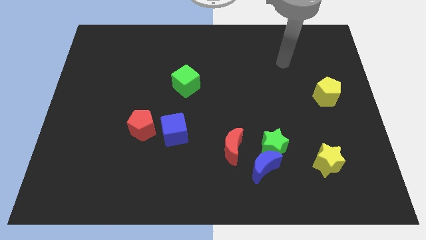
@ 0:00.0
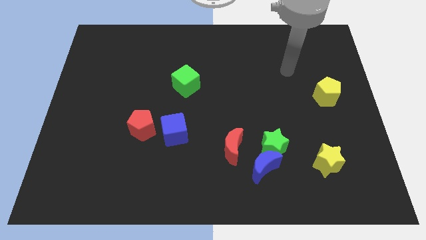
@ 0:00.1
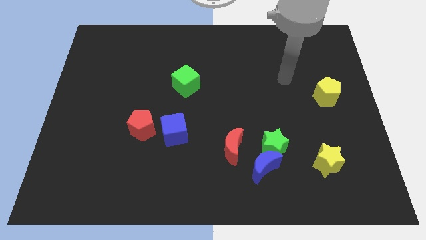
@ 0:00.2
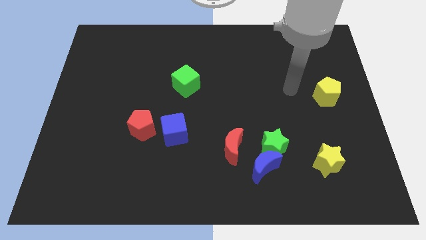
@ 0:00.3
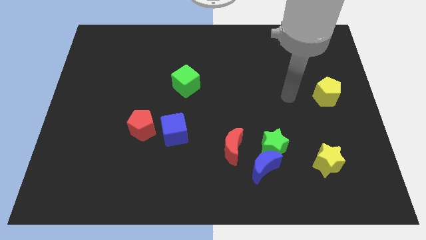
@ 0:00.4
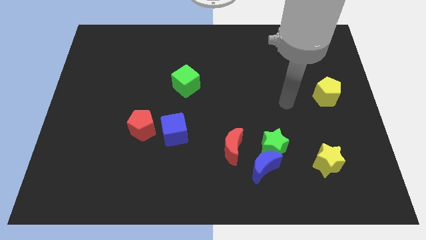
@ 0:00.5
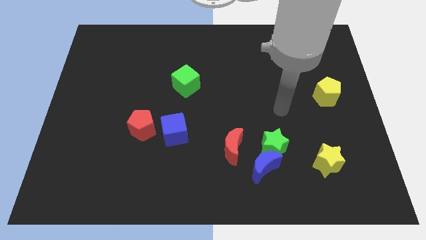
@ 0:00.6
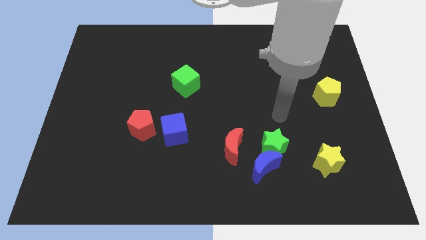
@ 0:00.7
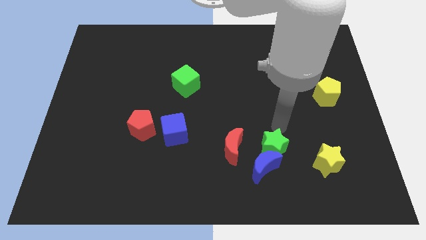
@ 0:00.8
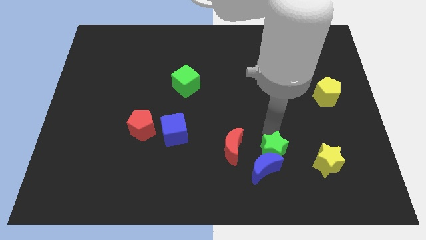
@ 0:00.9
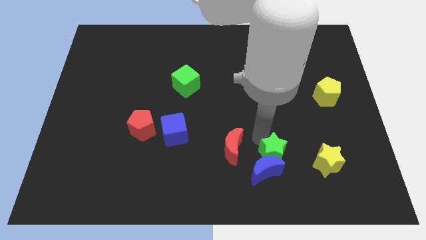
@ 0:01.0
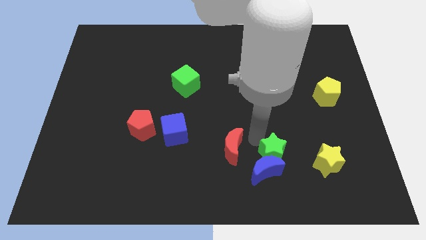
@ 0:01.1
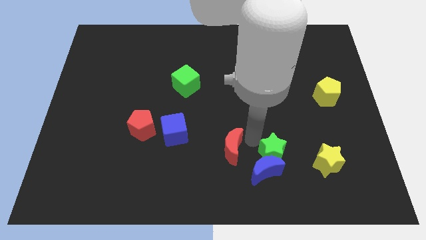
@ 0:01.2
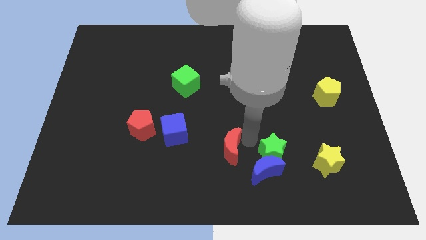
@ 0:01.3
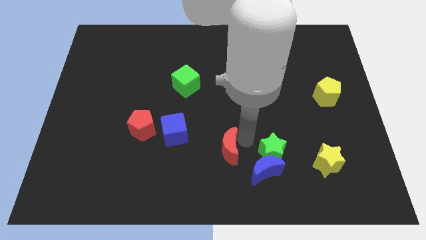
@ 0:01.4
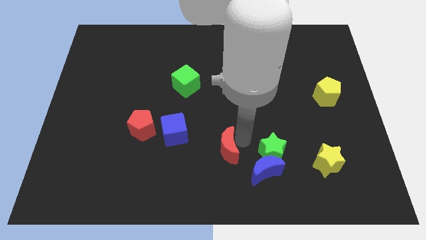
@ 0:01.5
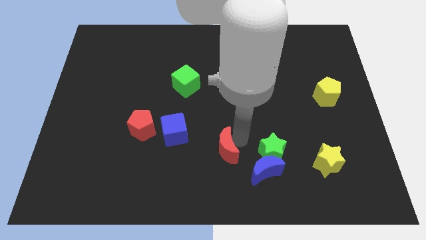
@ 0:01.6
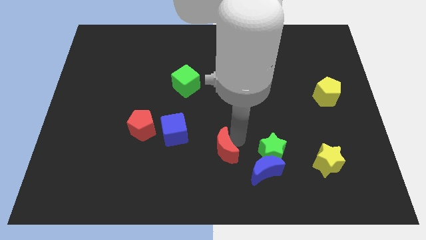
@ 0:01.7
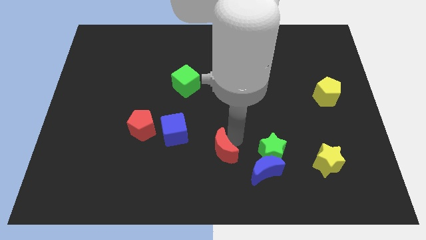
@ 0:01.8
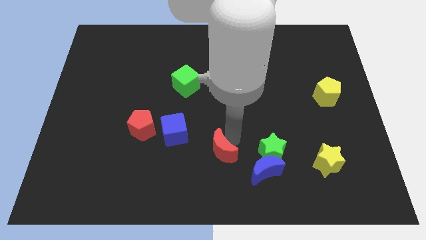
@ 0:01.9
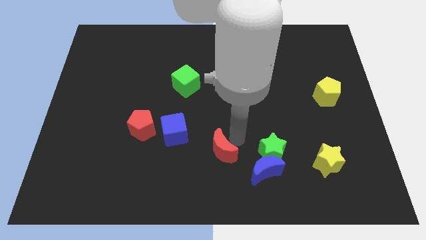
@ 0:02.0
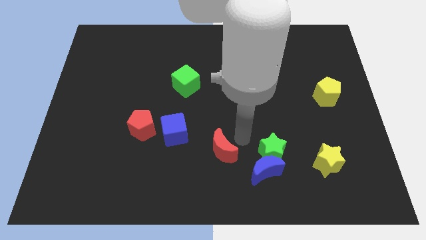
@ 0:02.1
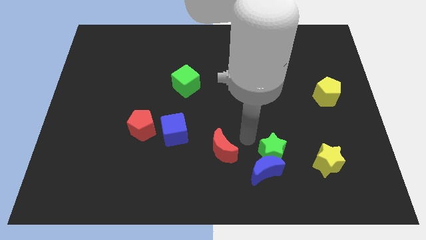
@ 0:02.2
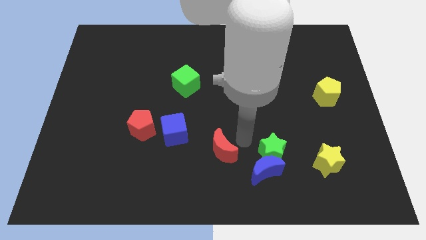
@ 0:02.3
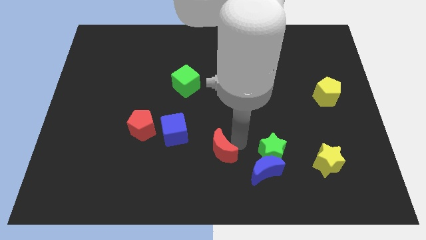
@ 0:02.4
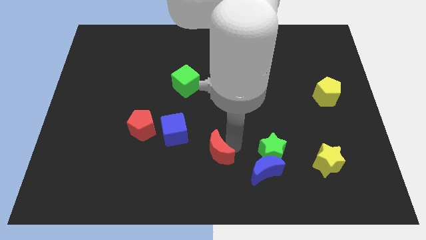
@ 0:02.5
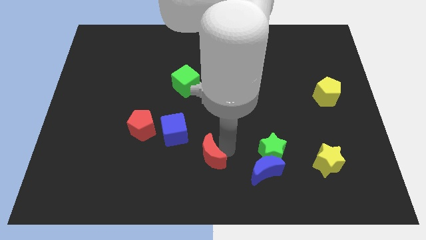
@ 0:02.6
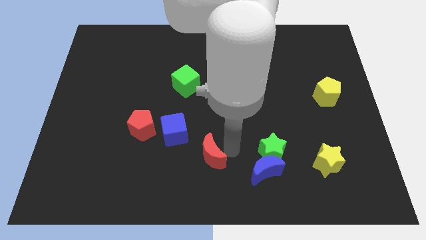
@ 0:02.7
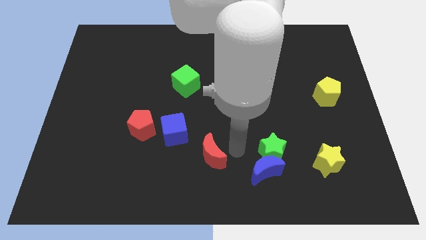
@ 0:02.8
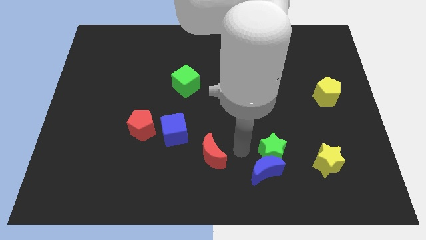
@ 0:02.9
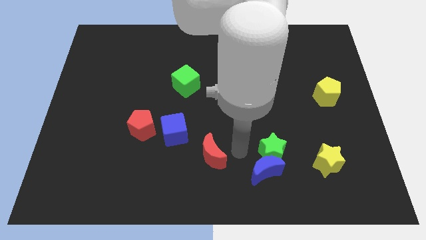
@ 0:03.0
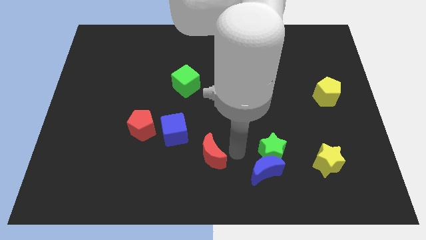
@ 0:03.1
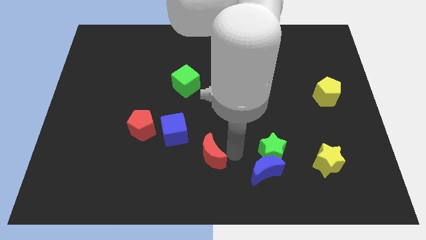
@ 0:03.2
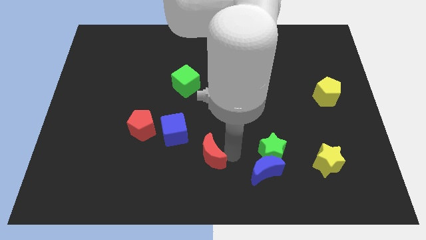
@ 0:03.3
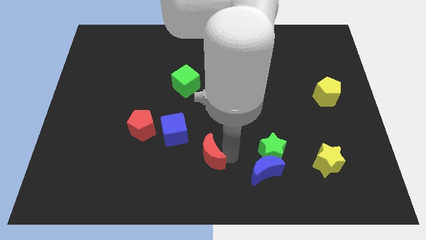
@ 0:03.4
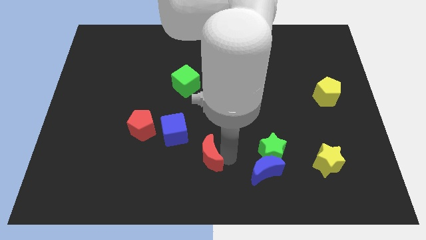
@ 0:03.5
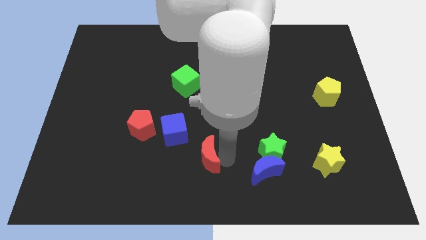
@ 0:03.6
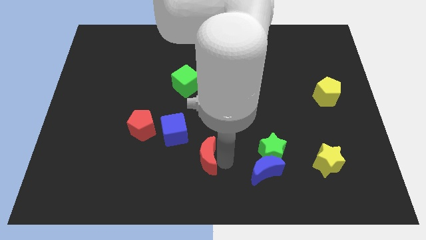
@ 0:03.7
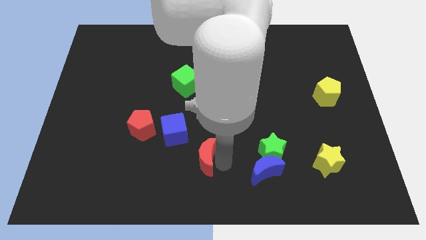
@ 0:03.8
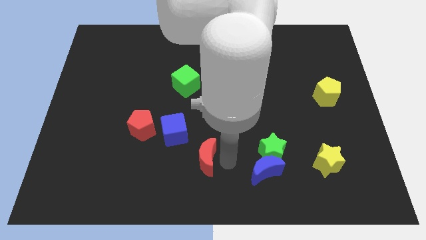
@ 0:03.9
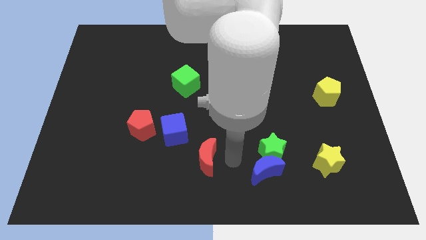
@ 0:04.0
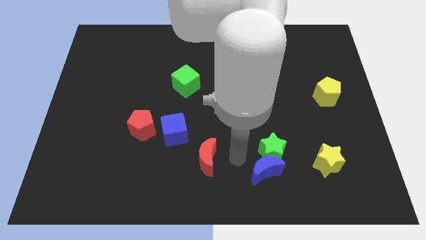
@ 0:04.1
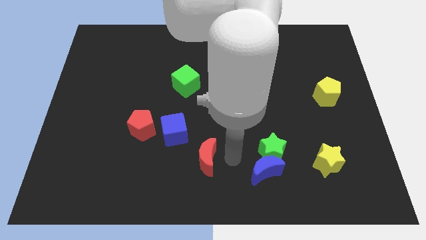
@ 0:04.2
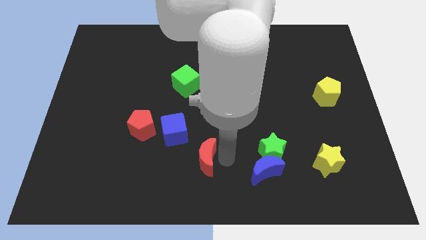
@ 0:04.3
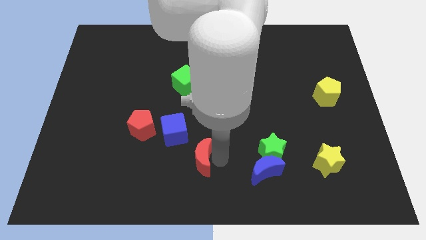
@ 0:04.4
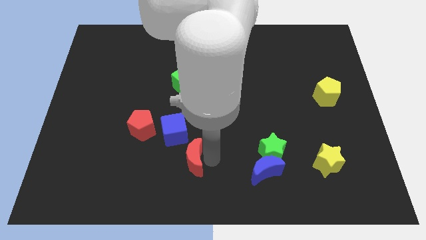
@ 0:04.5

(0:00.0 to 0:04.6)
push the red moon to the left a little

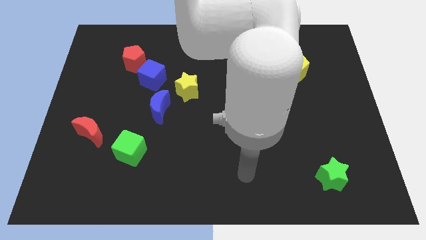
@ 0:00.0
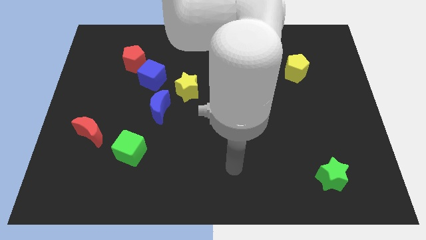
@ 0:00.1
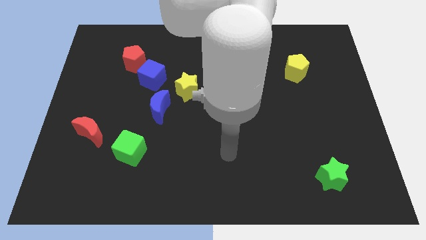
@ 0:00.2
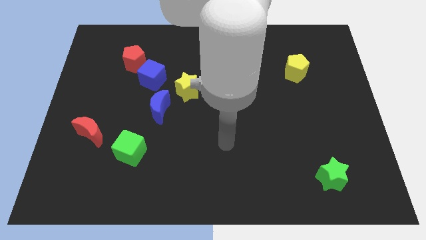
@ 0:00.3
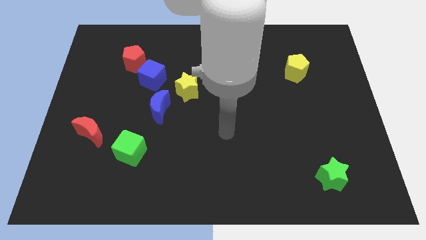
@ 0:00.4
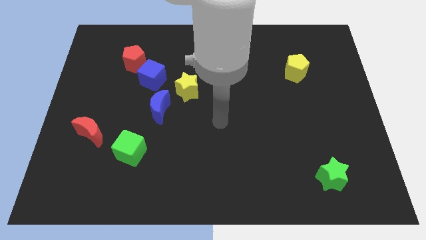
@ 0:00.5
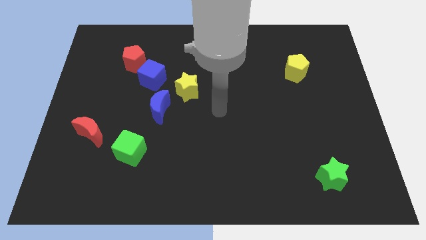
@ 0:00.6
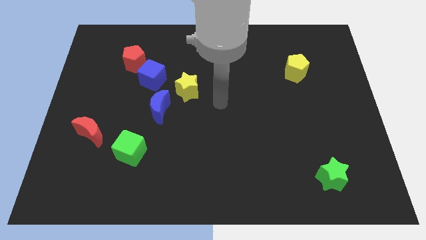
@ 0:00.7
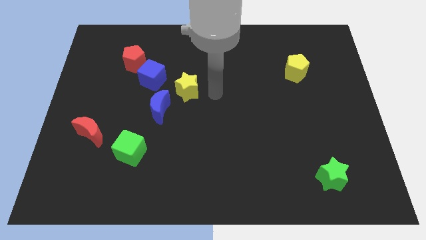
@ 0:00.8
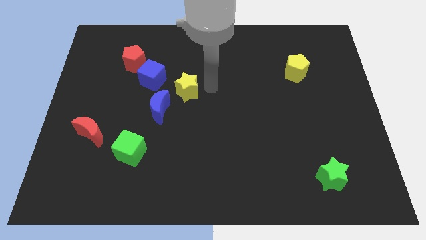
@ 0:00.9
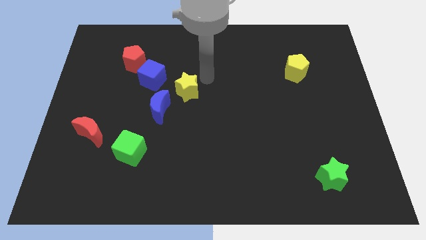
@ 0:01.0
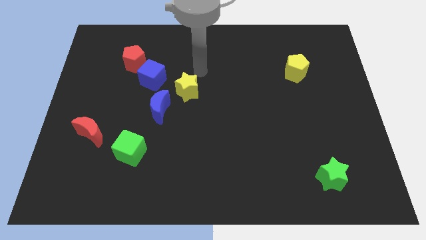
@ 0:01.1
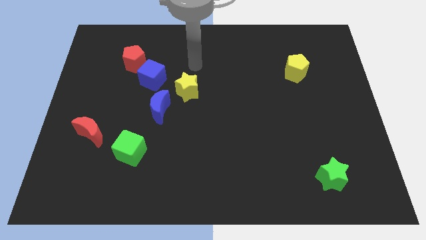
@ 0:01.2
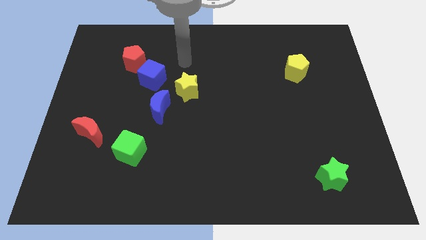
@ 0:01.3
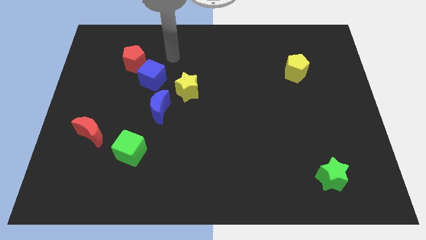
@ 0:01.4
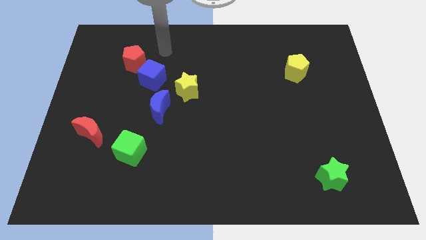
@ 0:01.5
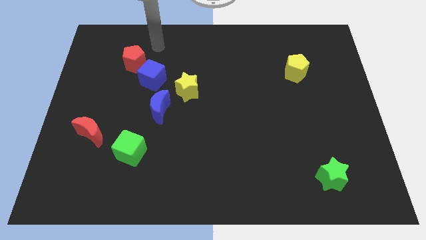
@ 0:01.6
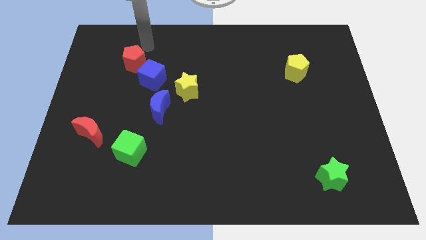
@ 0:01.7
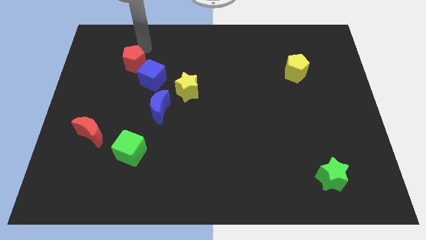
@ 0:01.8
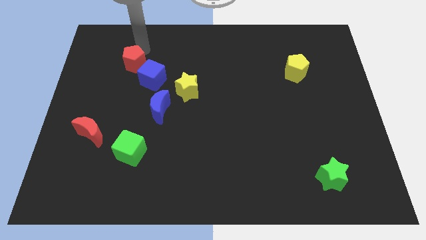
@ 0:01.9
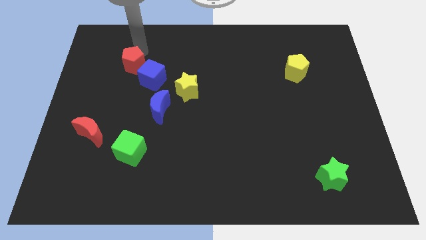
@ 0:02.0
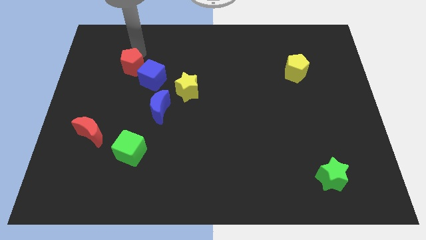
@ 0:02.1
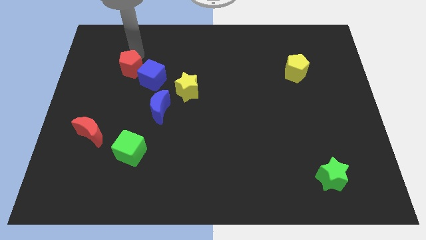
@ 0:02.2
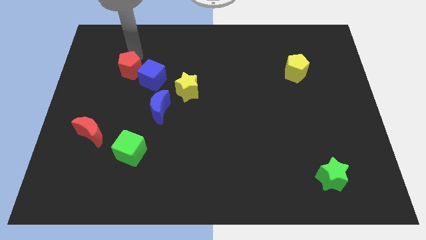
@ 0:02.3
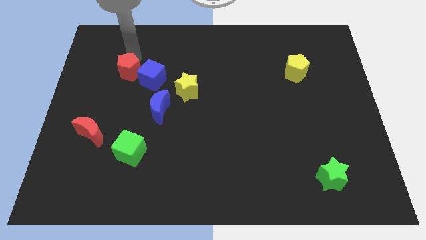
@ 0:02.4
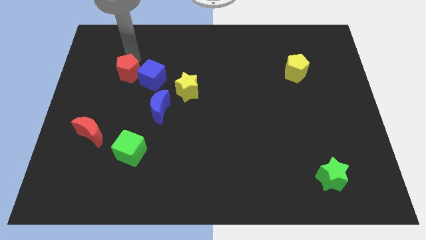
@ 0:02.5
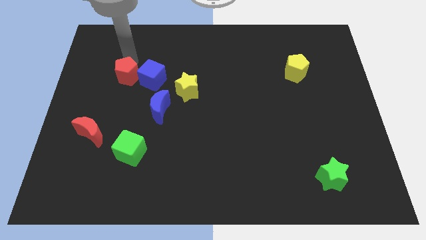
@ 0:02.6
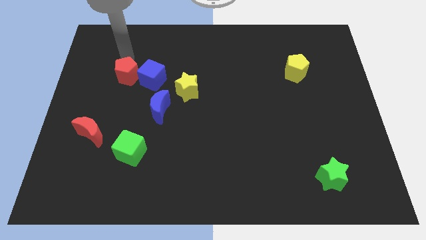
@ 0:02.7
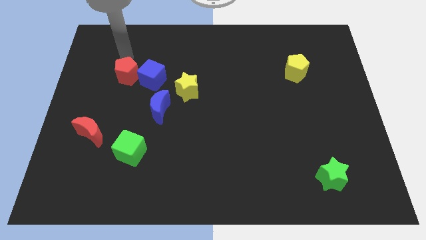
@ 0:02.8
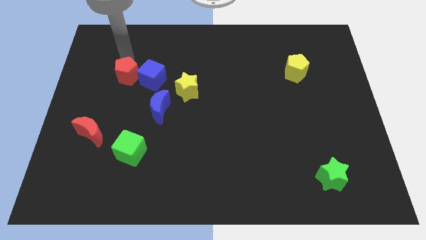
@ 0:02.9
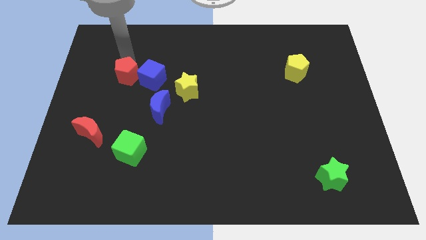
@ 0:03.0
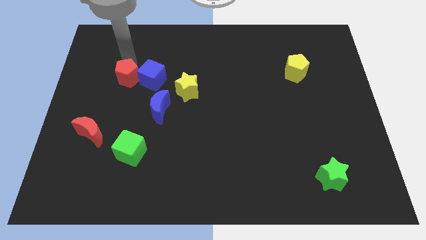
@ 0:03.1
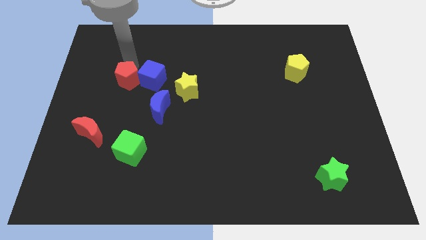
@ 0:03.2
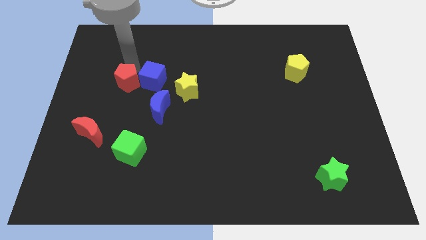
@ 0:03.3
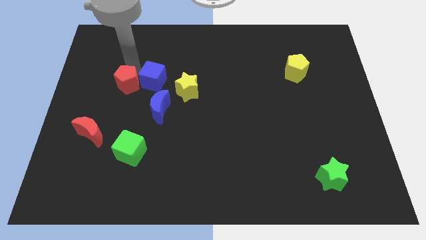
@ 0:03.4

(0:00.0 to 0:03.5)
slide the red pentagon downwards a little
